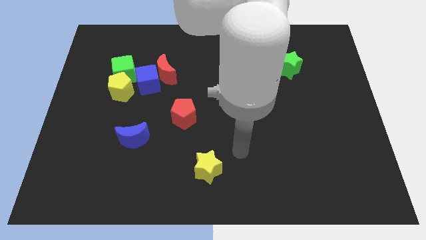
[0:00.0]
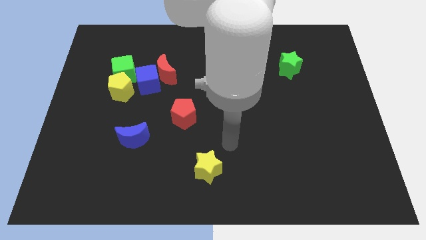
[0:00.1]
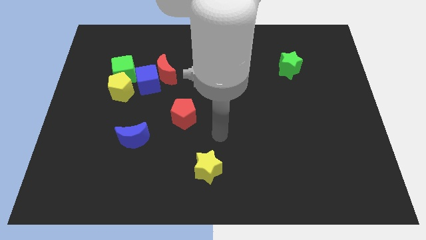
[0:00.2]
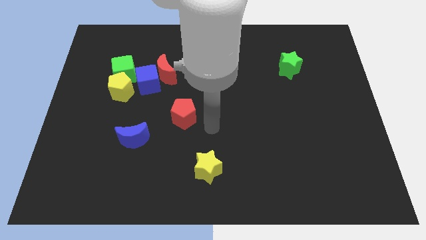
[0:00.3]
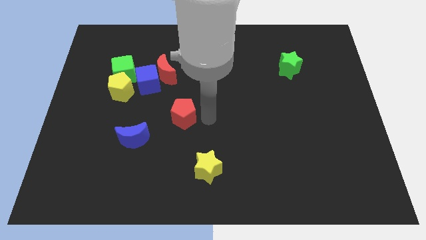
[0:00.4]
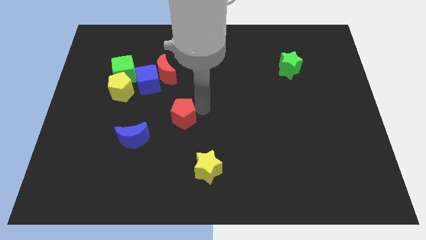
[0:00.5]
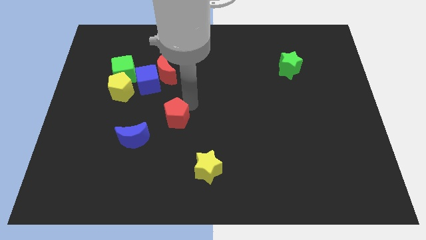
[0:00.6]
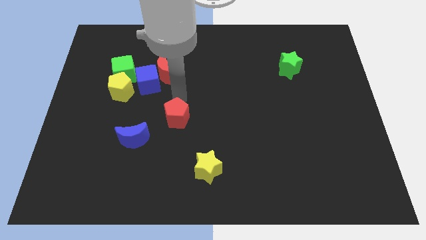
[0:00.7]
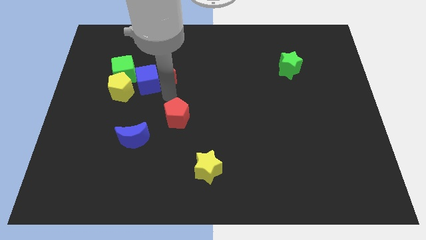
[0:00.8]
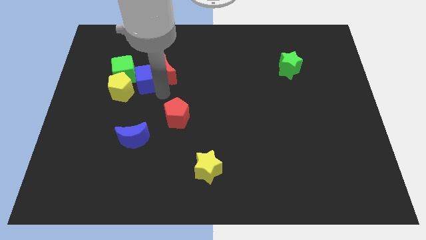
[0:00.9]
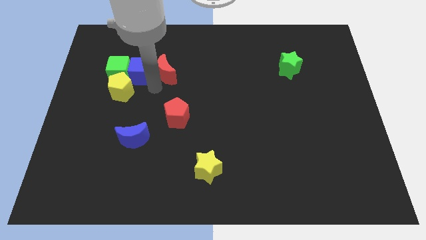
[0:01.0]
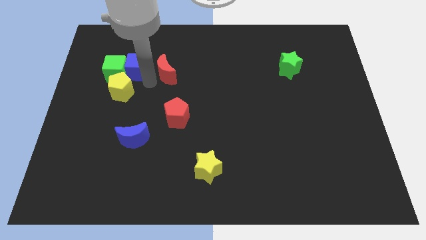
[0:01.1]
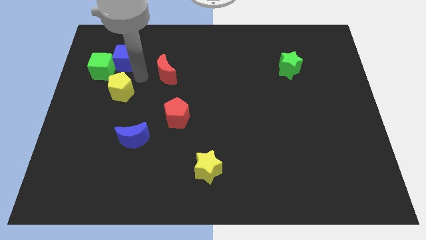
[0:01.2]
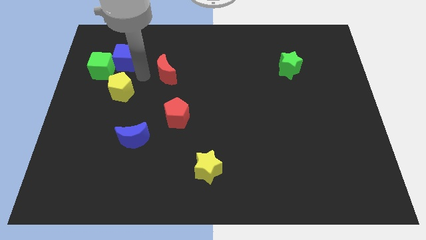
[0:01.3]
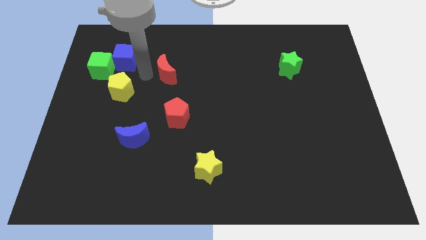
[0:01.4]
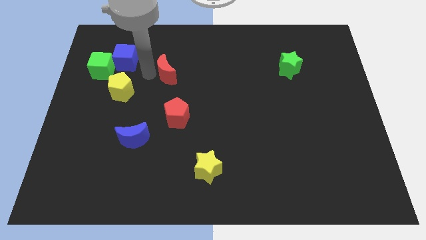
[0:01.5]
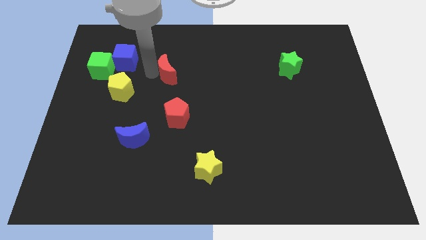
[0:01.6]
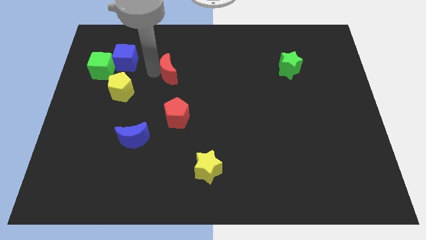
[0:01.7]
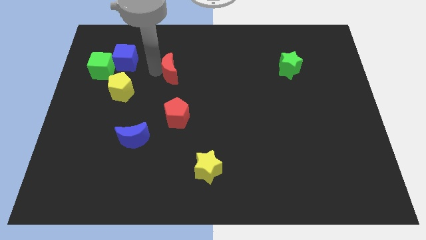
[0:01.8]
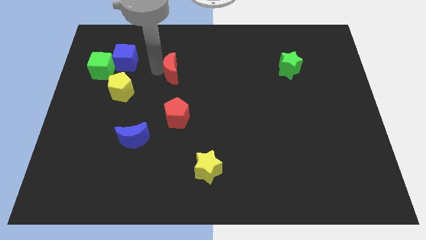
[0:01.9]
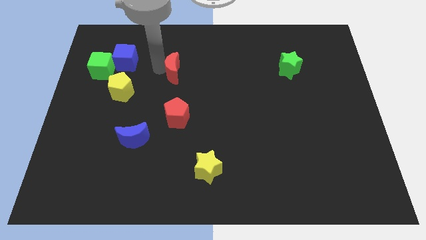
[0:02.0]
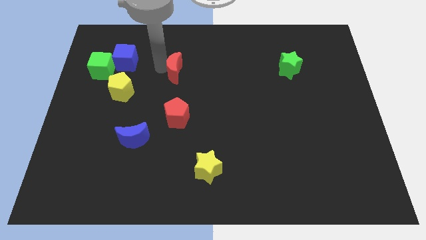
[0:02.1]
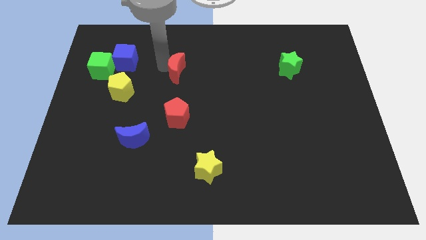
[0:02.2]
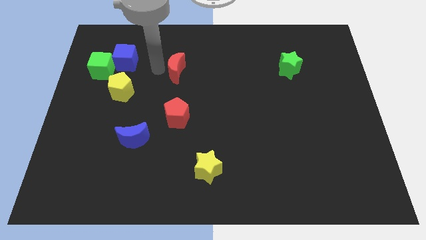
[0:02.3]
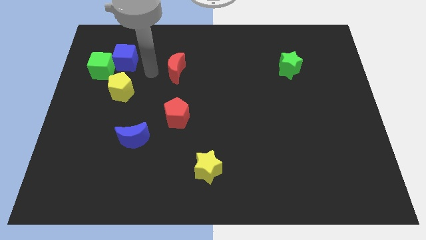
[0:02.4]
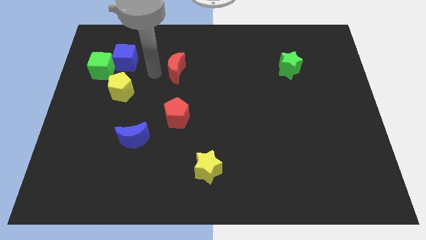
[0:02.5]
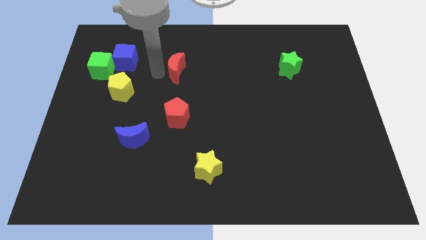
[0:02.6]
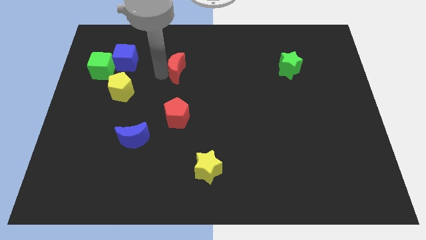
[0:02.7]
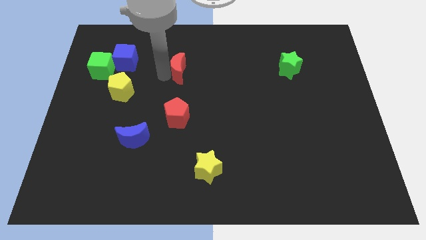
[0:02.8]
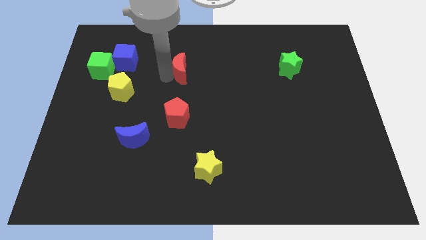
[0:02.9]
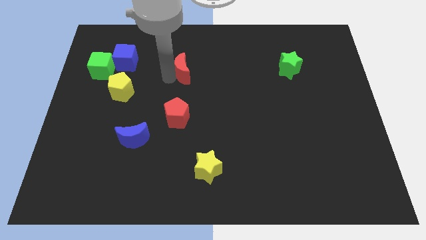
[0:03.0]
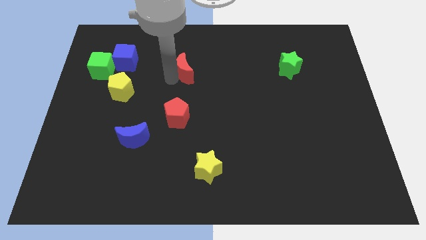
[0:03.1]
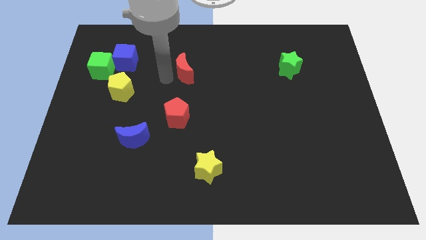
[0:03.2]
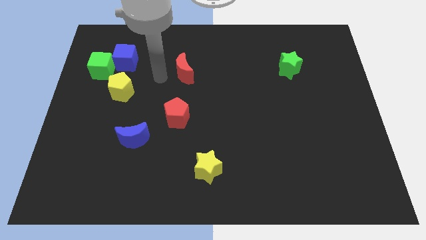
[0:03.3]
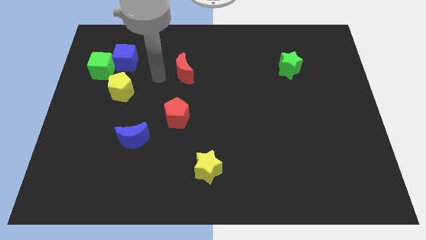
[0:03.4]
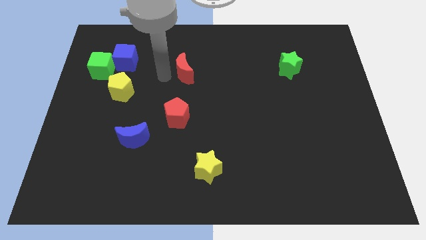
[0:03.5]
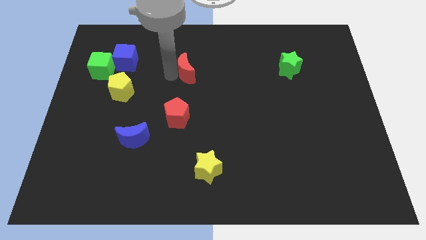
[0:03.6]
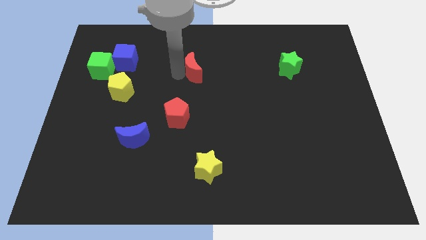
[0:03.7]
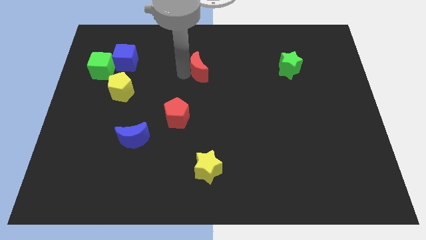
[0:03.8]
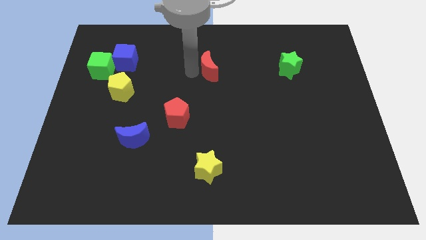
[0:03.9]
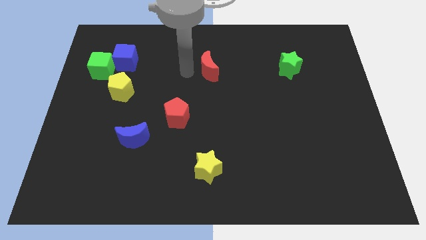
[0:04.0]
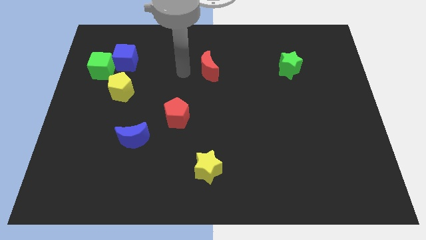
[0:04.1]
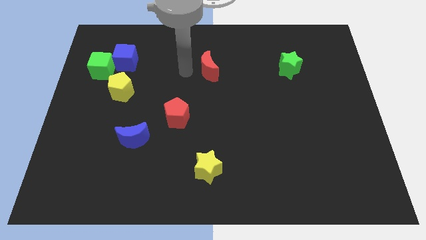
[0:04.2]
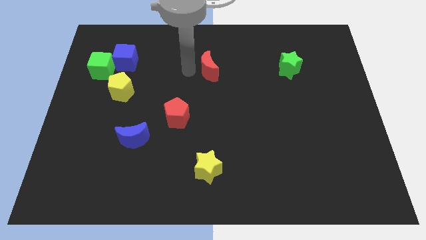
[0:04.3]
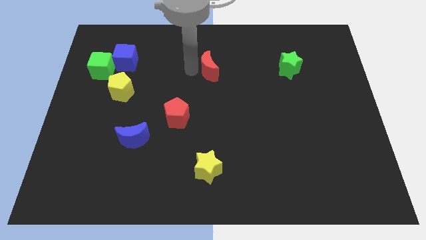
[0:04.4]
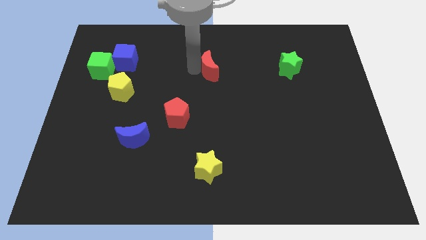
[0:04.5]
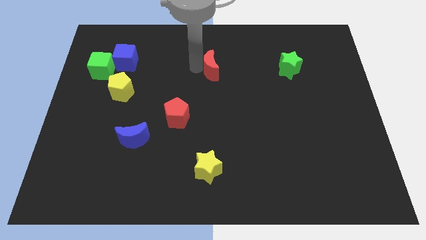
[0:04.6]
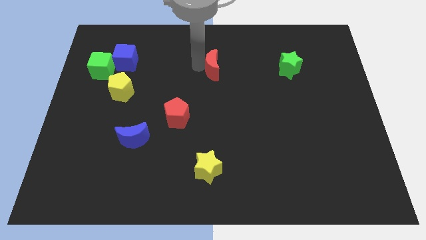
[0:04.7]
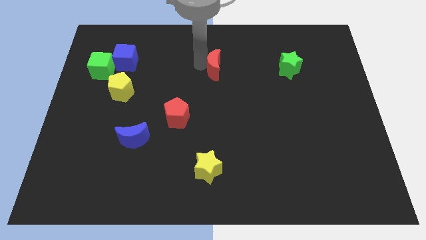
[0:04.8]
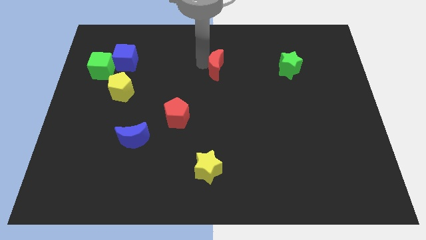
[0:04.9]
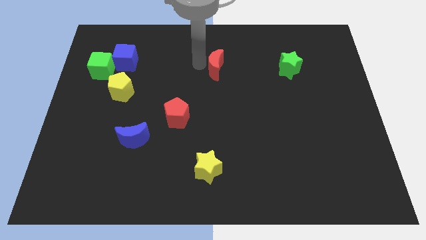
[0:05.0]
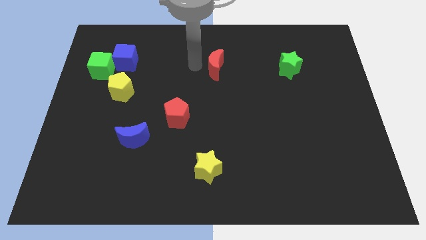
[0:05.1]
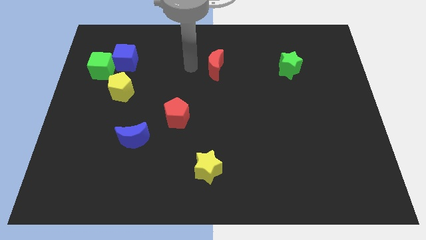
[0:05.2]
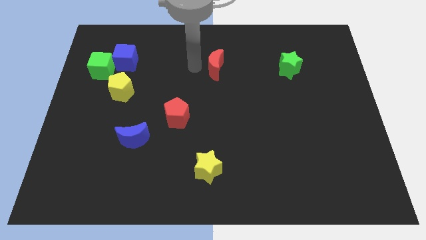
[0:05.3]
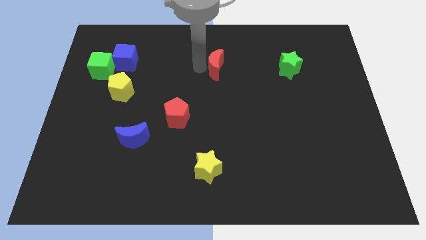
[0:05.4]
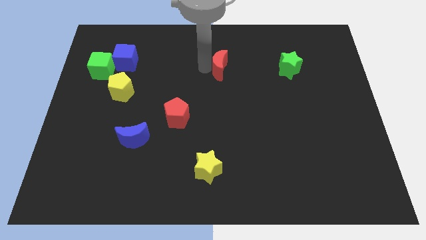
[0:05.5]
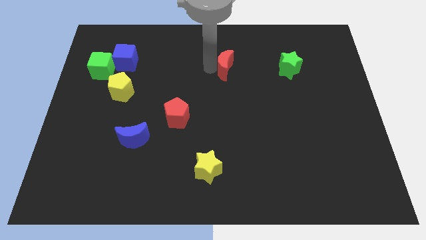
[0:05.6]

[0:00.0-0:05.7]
move the red moon to the left side of the green star

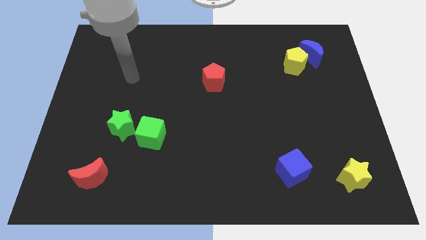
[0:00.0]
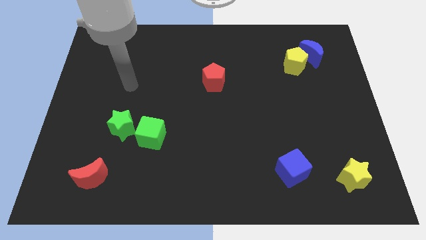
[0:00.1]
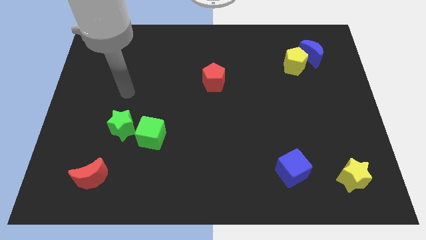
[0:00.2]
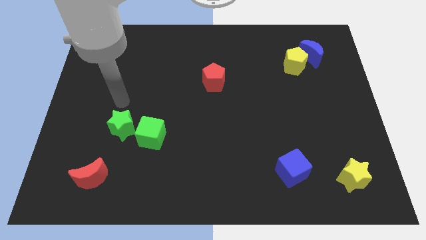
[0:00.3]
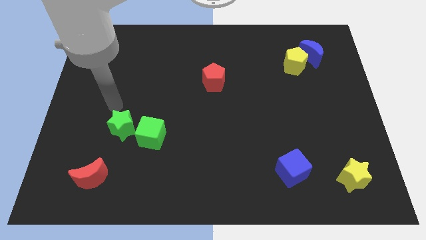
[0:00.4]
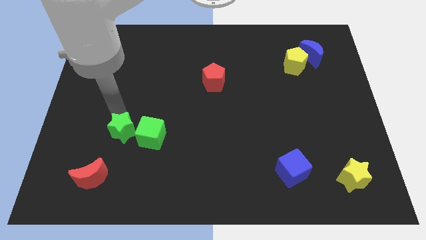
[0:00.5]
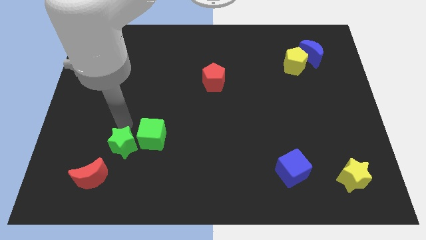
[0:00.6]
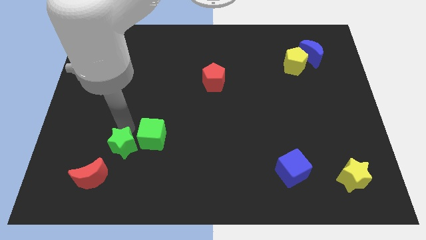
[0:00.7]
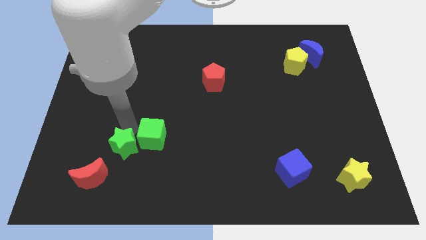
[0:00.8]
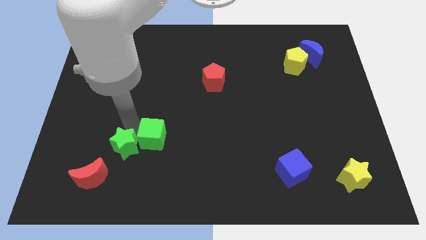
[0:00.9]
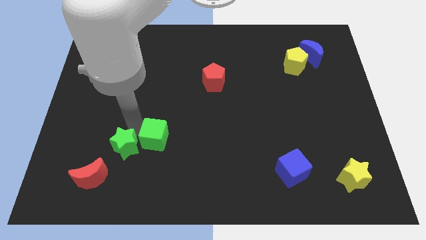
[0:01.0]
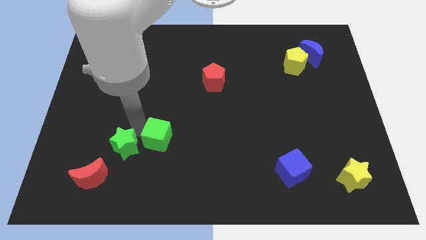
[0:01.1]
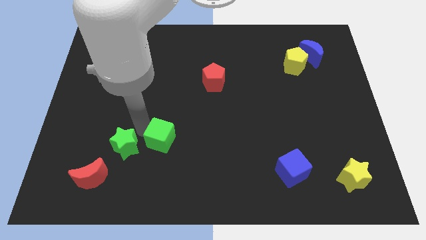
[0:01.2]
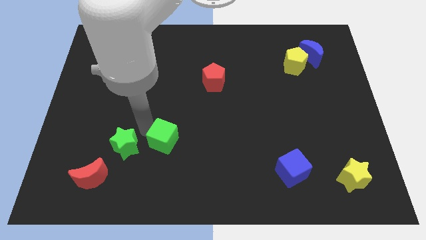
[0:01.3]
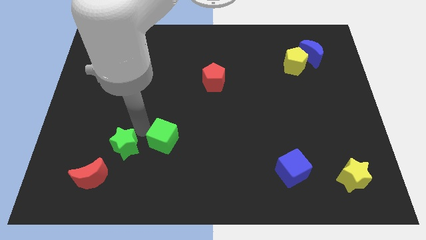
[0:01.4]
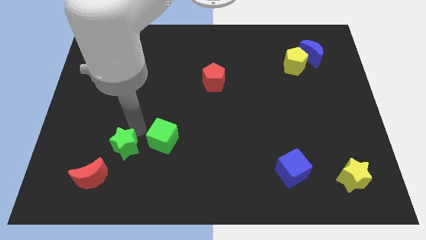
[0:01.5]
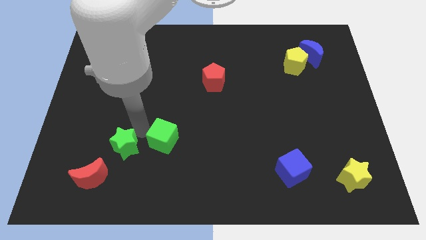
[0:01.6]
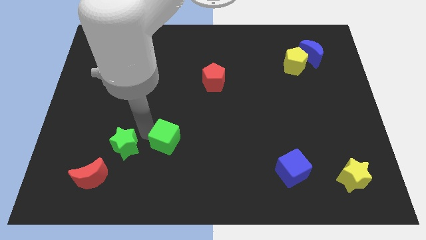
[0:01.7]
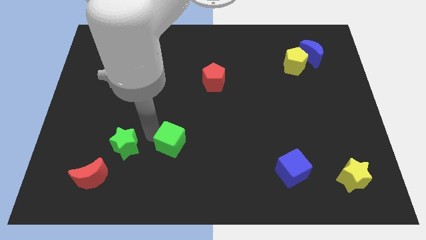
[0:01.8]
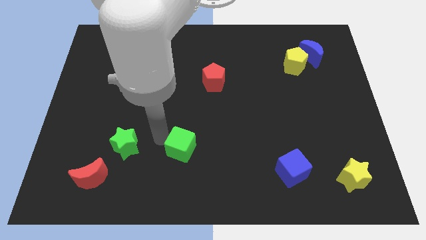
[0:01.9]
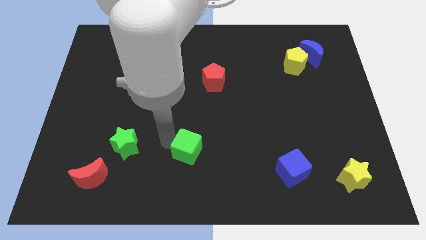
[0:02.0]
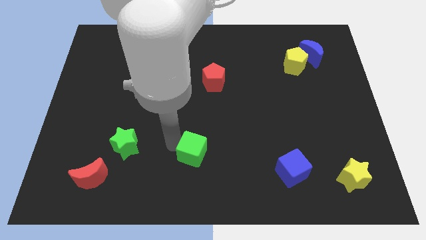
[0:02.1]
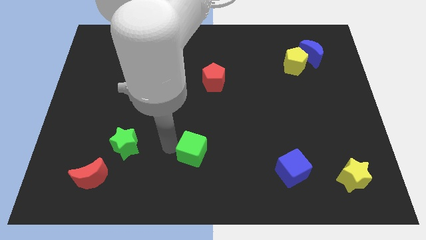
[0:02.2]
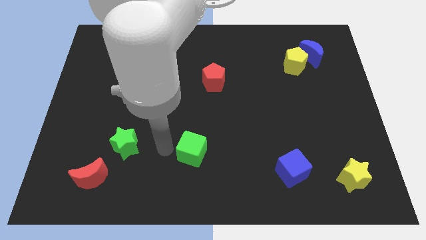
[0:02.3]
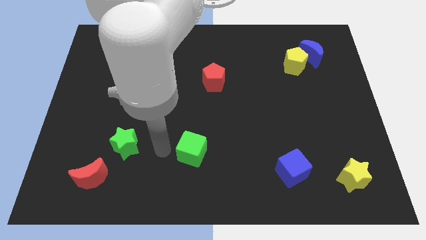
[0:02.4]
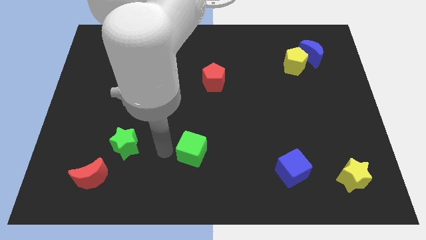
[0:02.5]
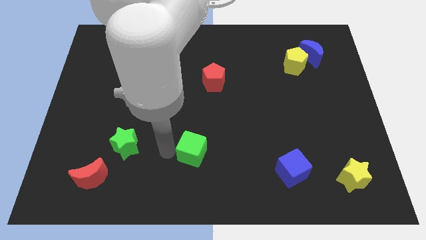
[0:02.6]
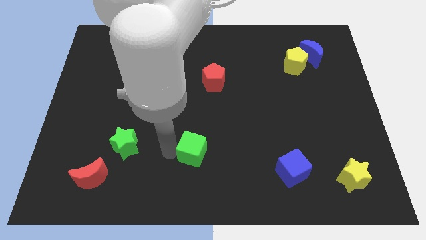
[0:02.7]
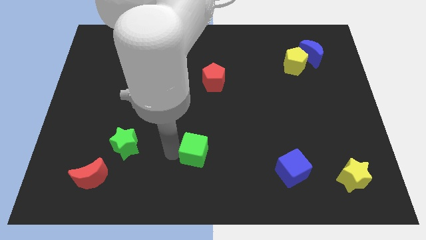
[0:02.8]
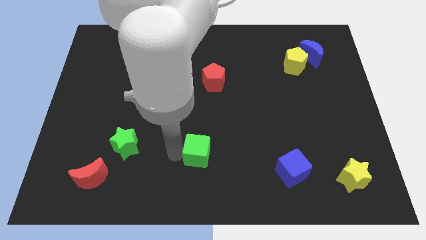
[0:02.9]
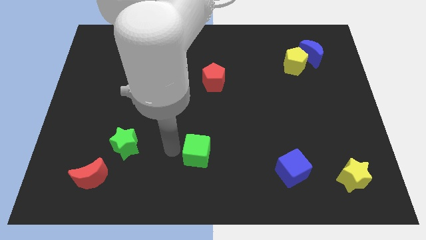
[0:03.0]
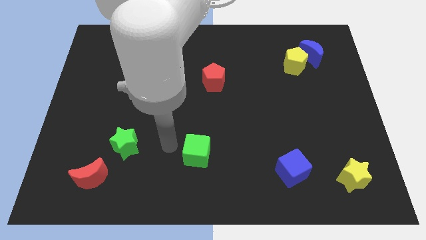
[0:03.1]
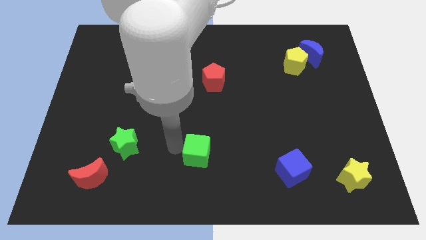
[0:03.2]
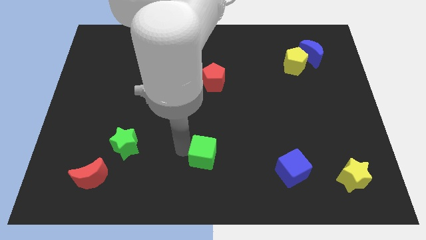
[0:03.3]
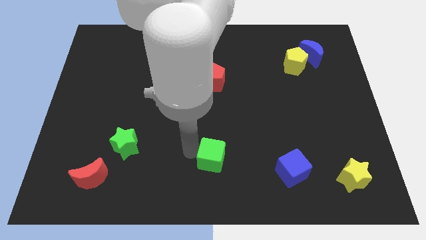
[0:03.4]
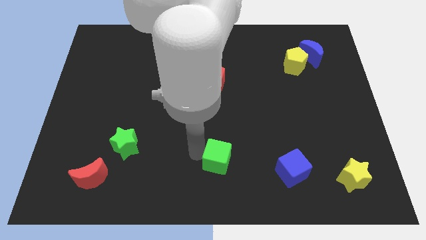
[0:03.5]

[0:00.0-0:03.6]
put the green cube to the left of the blue cube
